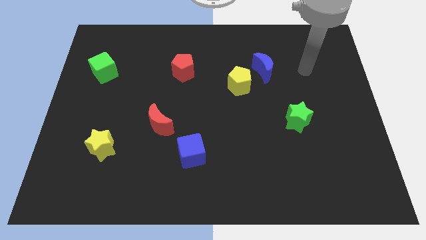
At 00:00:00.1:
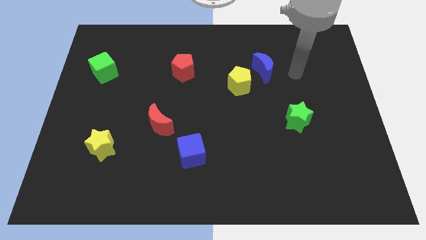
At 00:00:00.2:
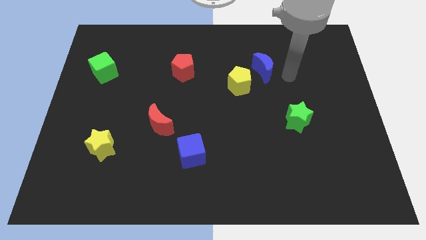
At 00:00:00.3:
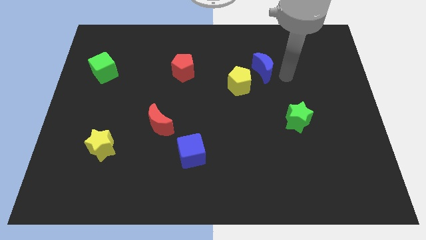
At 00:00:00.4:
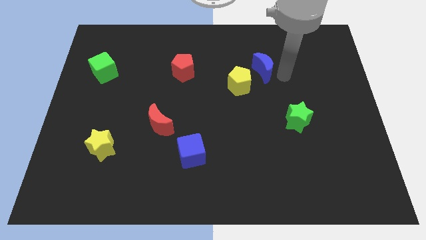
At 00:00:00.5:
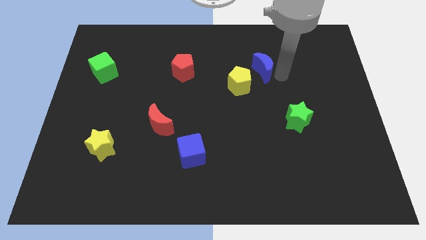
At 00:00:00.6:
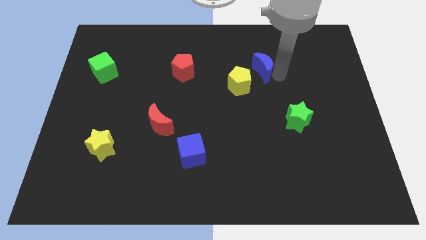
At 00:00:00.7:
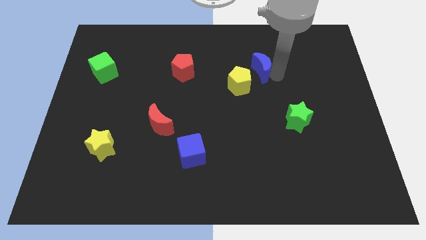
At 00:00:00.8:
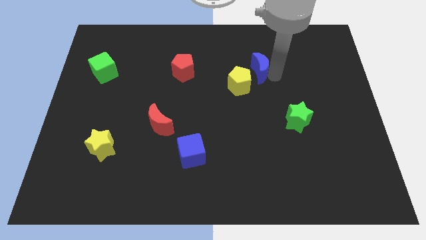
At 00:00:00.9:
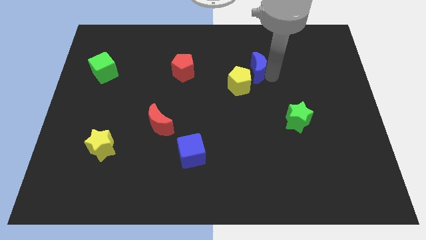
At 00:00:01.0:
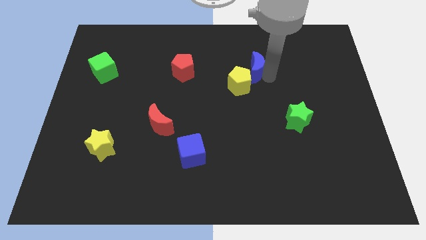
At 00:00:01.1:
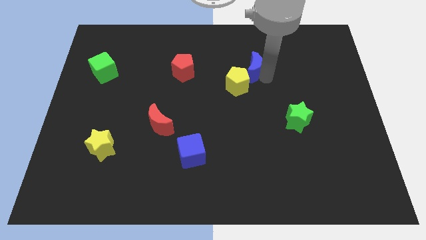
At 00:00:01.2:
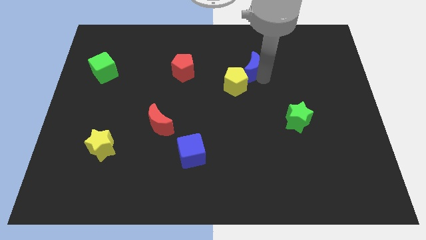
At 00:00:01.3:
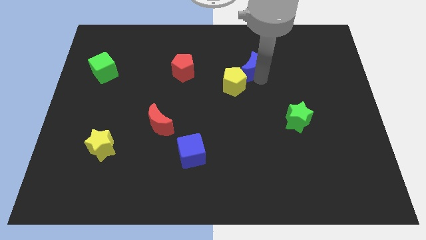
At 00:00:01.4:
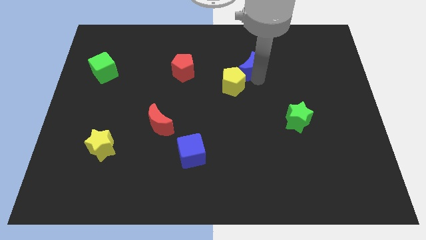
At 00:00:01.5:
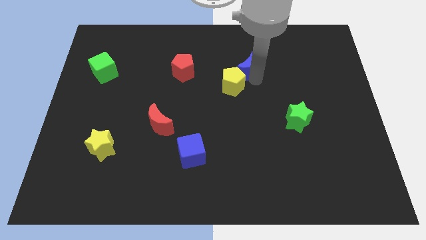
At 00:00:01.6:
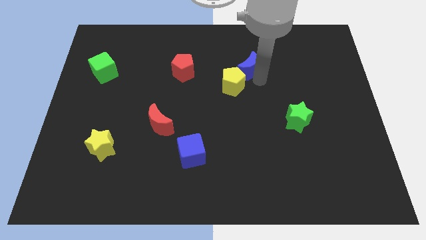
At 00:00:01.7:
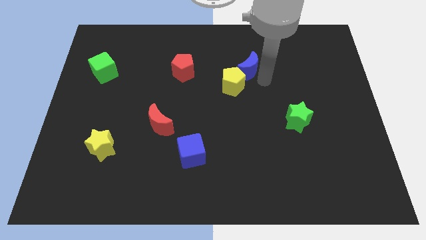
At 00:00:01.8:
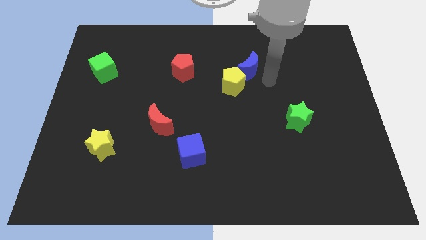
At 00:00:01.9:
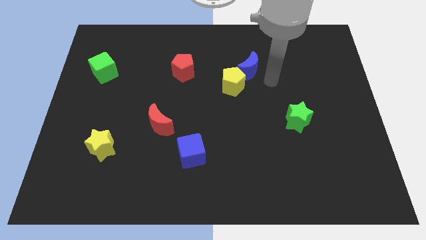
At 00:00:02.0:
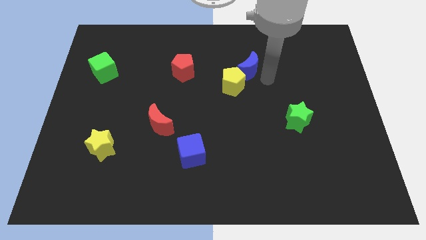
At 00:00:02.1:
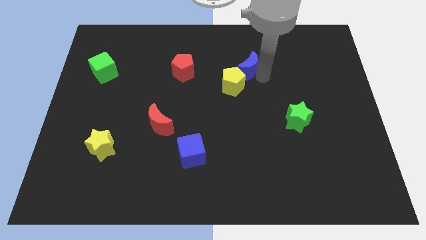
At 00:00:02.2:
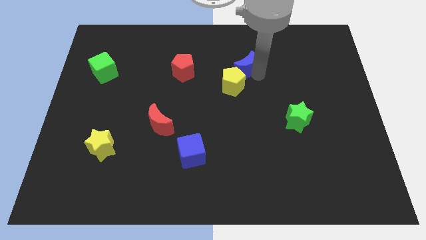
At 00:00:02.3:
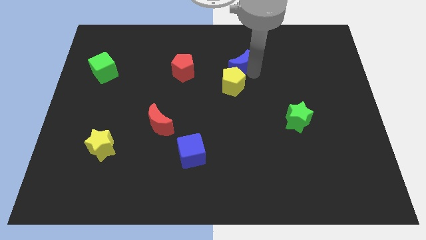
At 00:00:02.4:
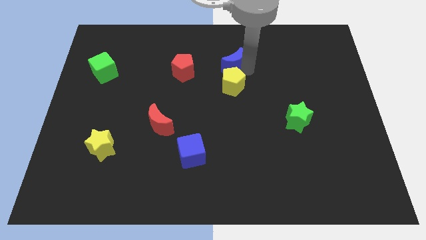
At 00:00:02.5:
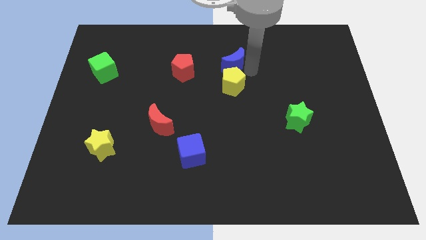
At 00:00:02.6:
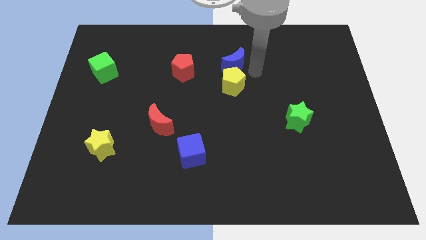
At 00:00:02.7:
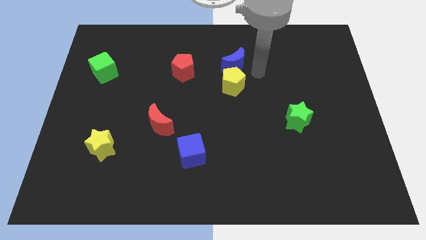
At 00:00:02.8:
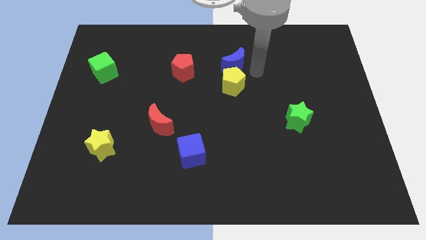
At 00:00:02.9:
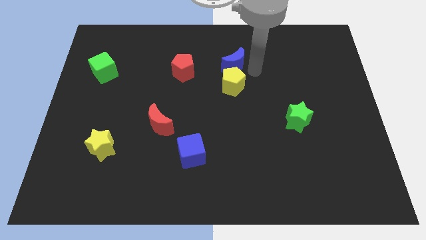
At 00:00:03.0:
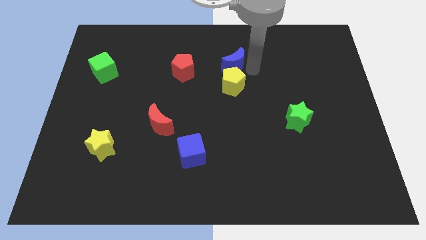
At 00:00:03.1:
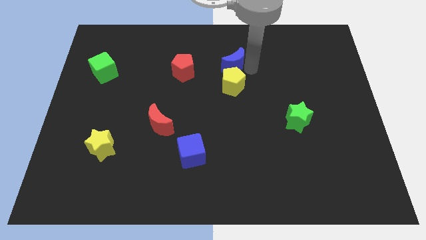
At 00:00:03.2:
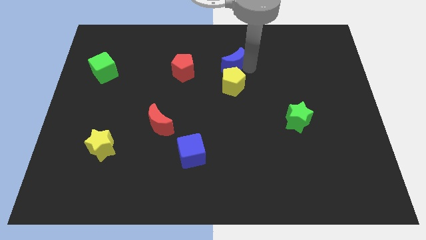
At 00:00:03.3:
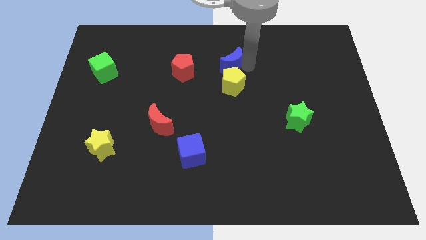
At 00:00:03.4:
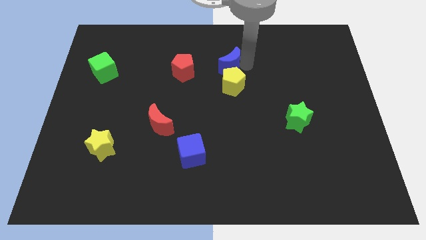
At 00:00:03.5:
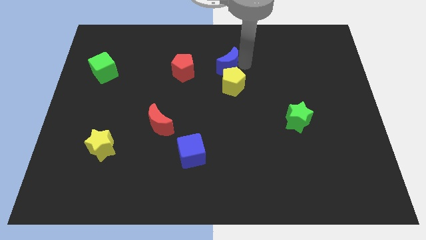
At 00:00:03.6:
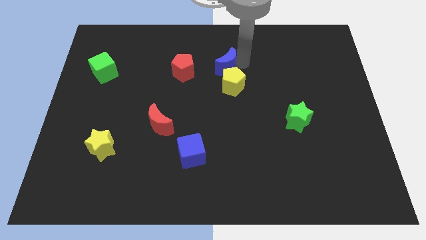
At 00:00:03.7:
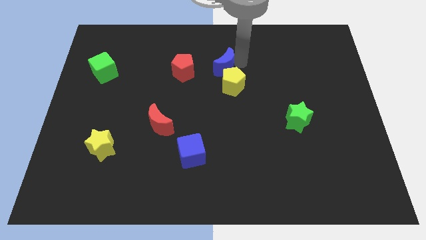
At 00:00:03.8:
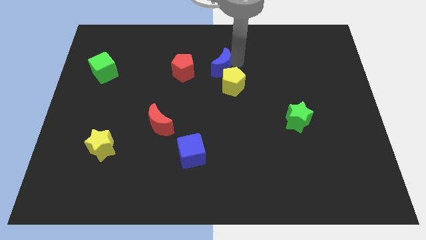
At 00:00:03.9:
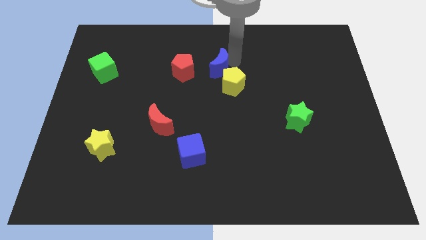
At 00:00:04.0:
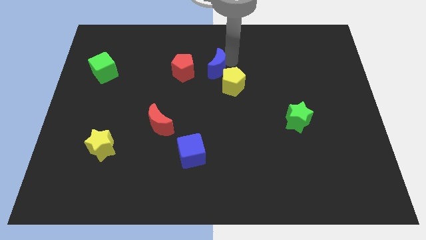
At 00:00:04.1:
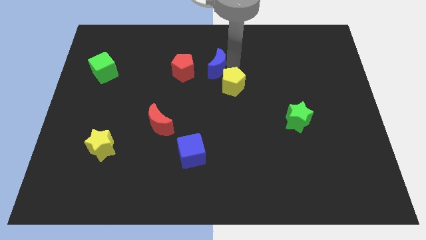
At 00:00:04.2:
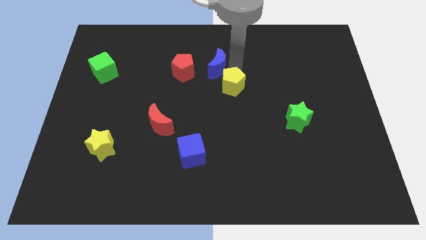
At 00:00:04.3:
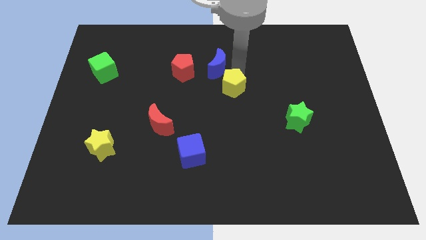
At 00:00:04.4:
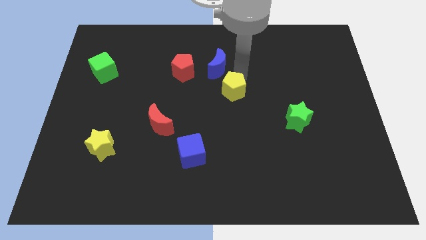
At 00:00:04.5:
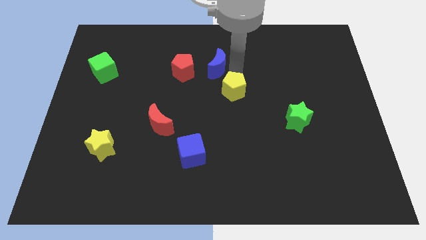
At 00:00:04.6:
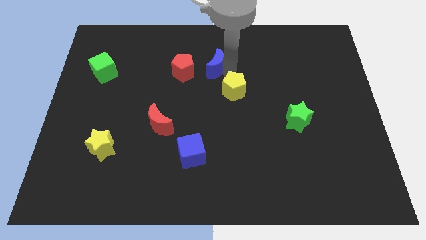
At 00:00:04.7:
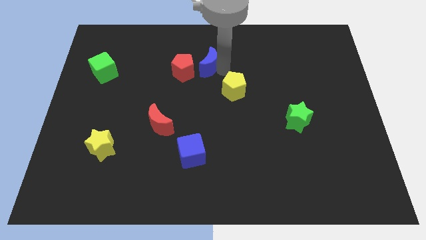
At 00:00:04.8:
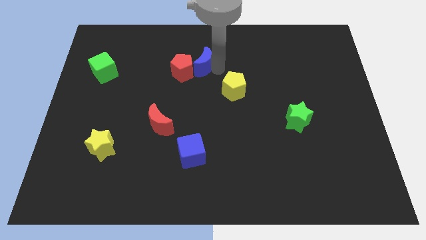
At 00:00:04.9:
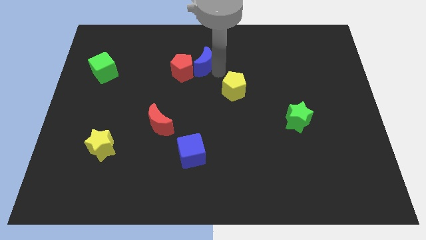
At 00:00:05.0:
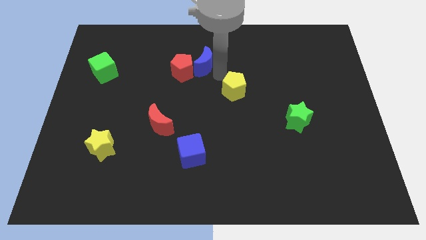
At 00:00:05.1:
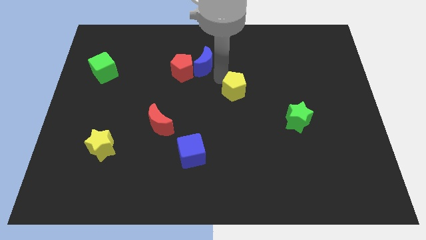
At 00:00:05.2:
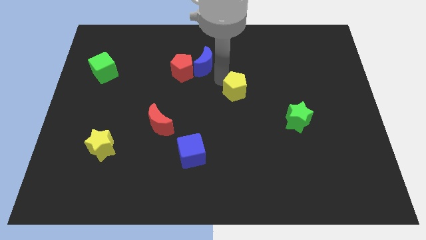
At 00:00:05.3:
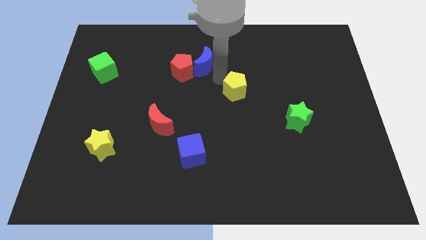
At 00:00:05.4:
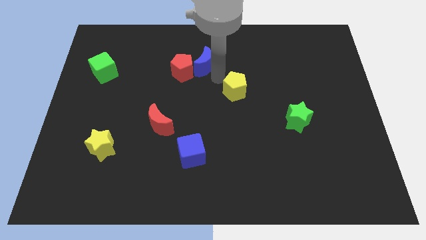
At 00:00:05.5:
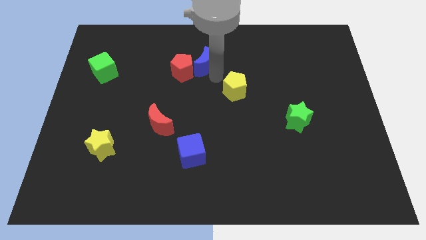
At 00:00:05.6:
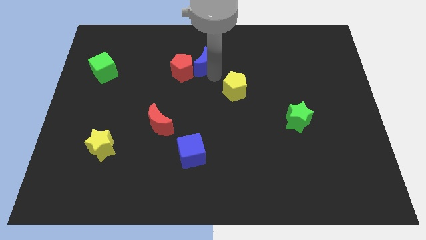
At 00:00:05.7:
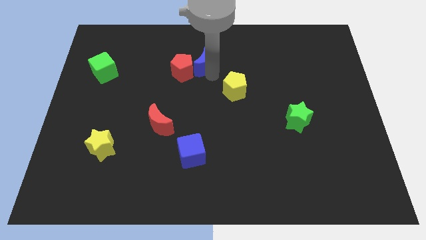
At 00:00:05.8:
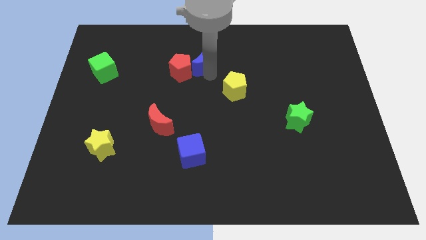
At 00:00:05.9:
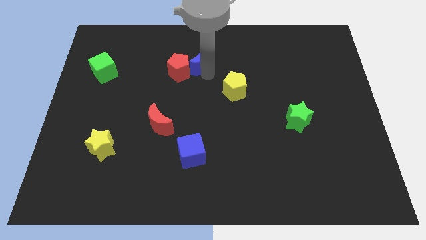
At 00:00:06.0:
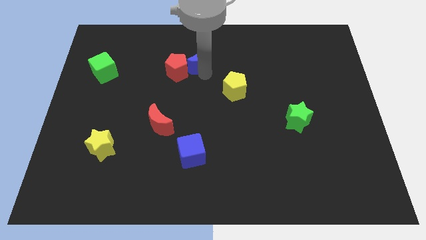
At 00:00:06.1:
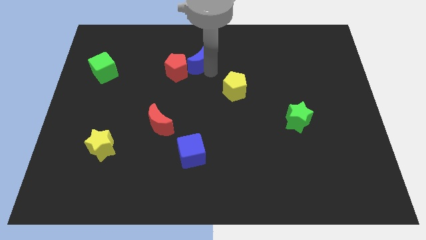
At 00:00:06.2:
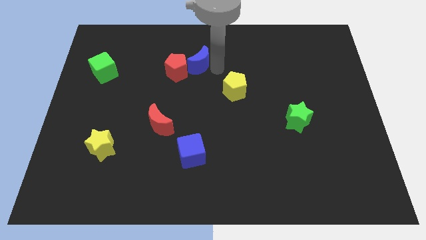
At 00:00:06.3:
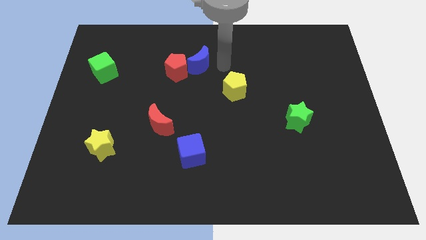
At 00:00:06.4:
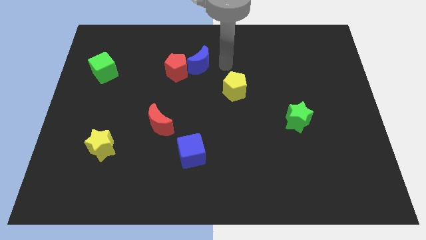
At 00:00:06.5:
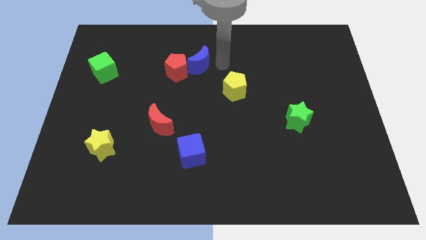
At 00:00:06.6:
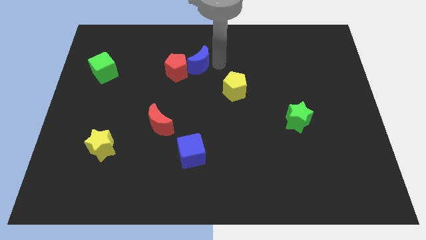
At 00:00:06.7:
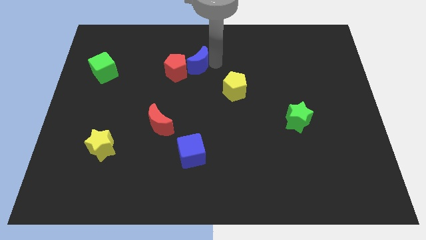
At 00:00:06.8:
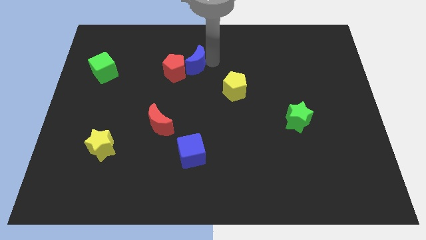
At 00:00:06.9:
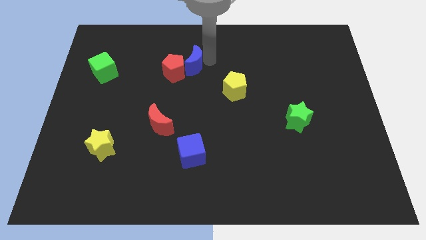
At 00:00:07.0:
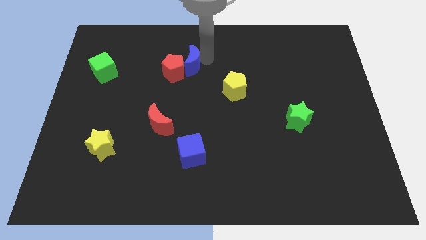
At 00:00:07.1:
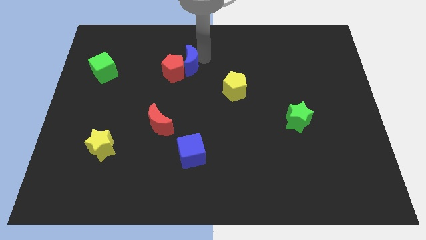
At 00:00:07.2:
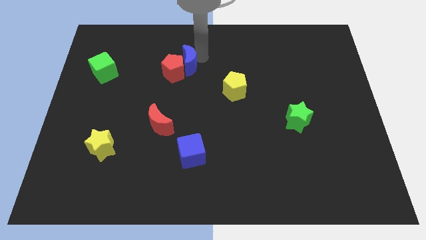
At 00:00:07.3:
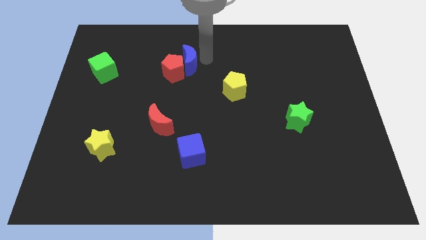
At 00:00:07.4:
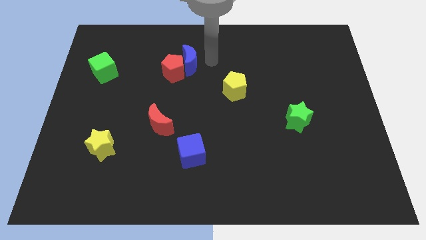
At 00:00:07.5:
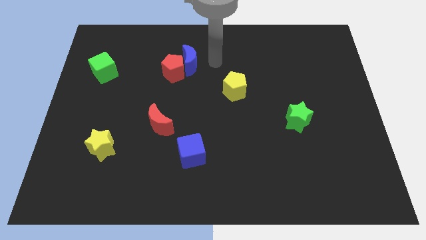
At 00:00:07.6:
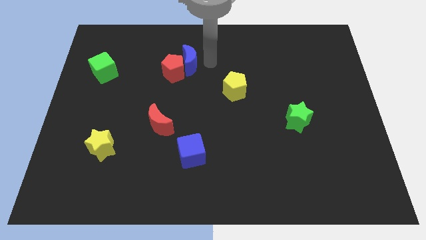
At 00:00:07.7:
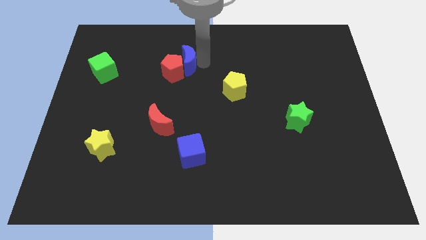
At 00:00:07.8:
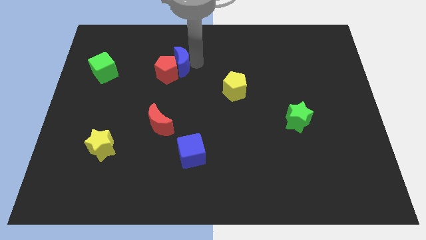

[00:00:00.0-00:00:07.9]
push the blue moon to the left
